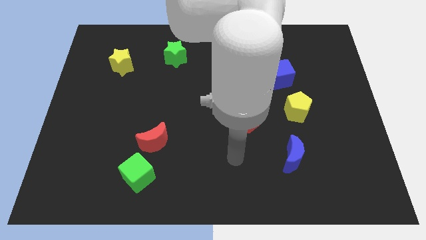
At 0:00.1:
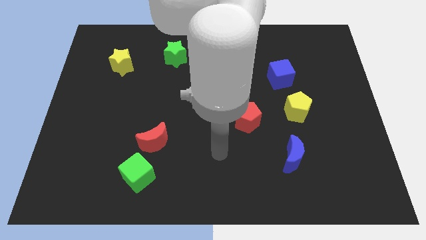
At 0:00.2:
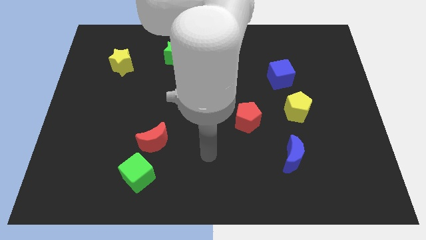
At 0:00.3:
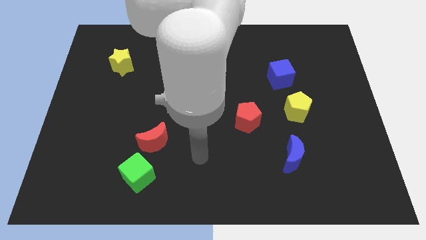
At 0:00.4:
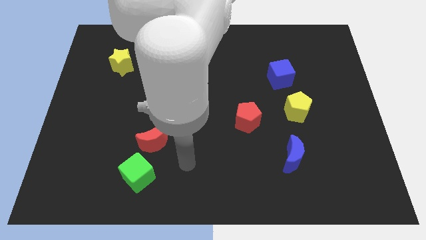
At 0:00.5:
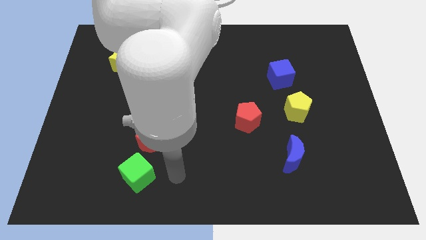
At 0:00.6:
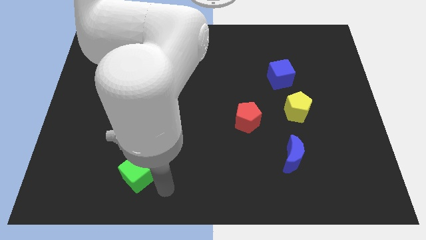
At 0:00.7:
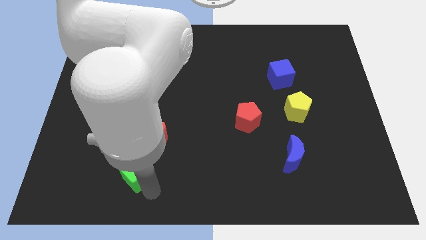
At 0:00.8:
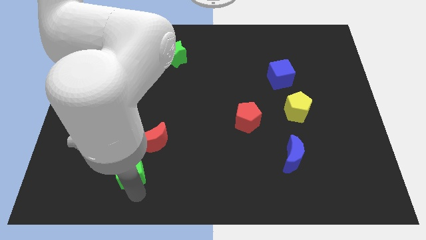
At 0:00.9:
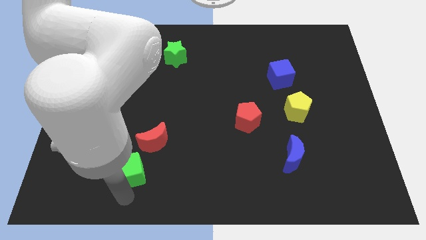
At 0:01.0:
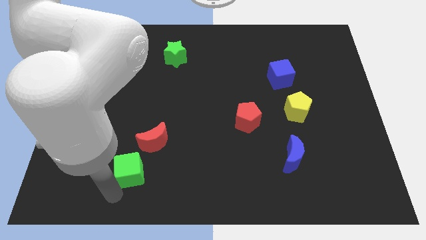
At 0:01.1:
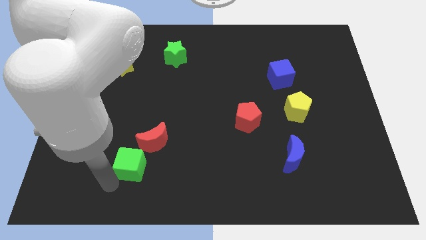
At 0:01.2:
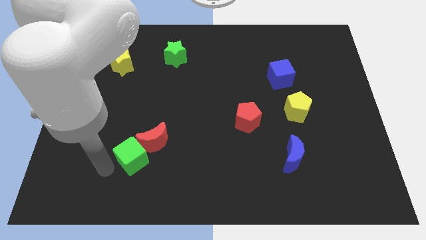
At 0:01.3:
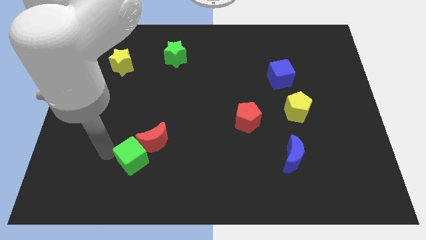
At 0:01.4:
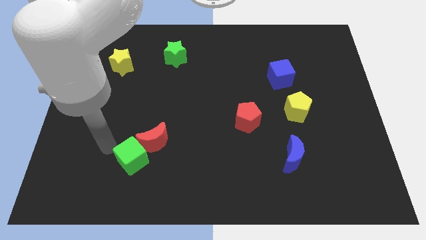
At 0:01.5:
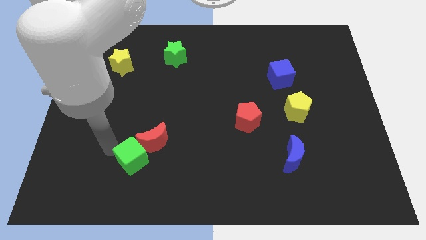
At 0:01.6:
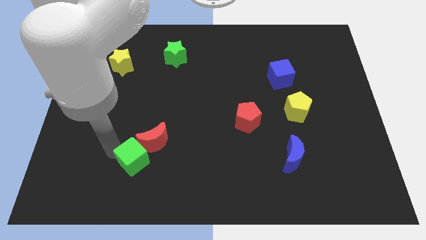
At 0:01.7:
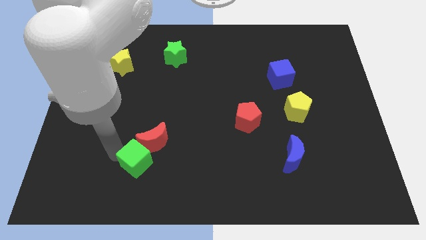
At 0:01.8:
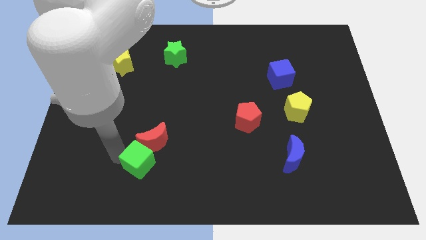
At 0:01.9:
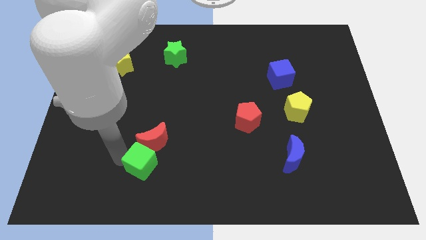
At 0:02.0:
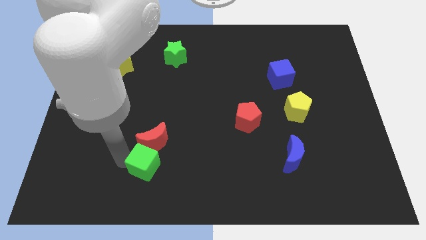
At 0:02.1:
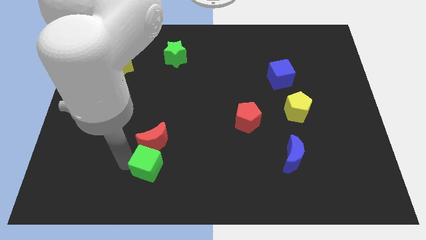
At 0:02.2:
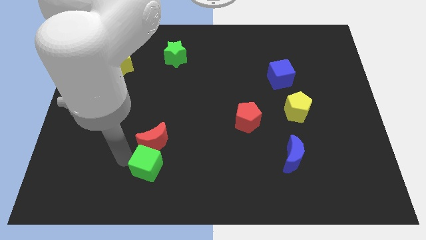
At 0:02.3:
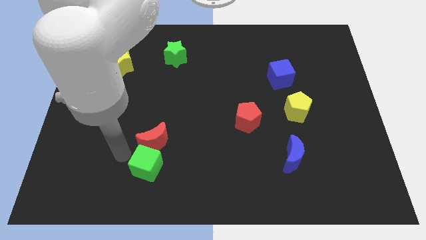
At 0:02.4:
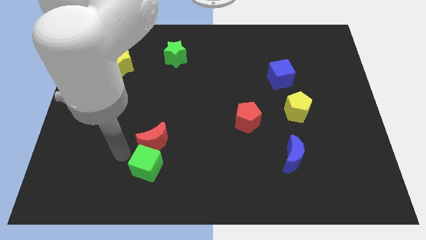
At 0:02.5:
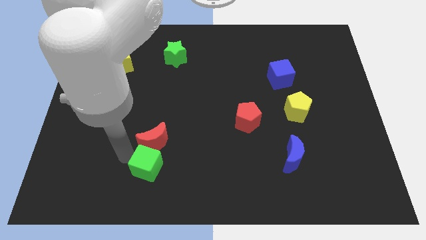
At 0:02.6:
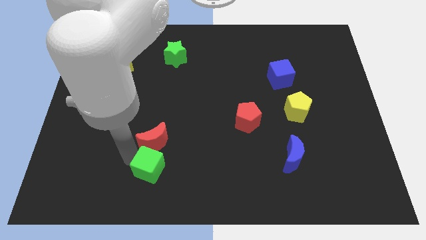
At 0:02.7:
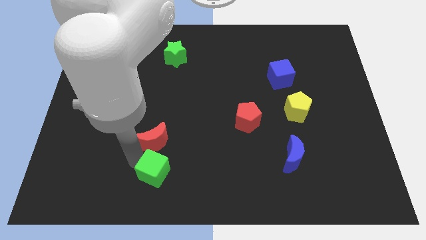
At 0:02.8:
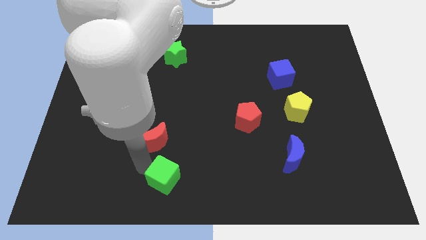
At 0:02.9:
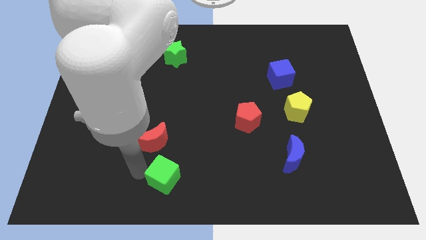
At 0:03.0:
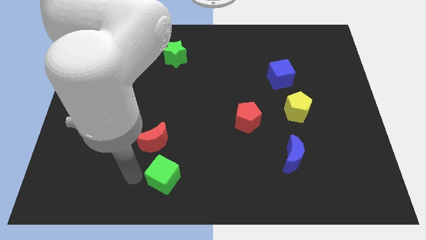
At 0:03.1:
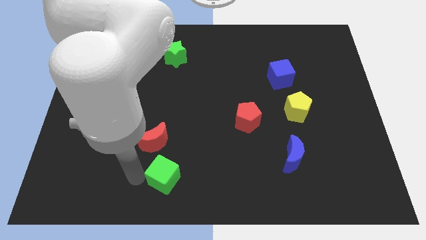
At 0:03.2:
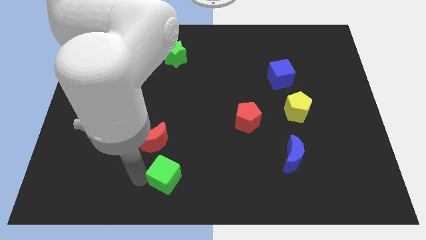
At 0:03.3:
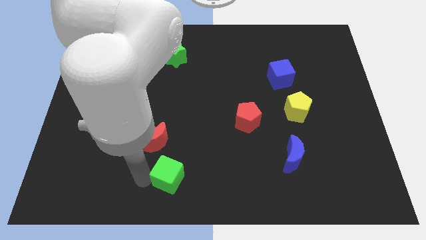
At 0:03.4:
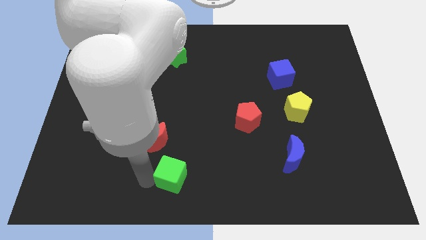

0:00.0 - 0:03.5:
slide the green cube right somewhat

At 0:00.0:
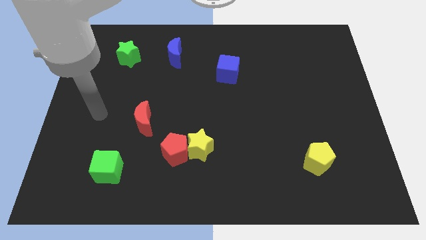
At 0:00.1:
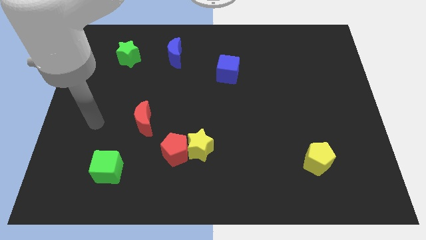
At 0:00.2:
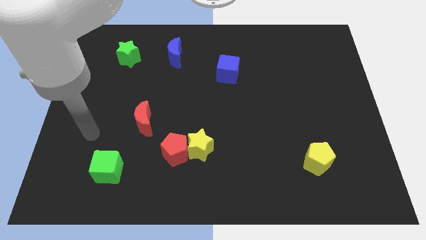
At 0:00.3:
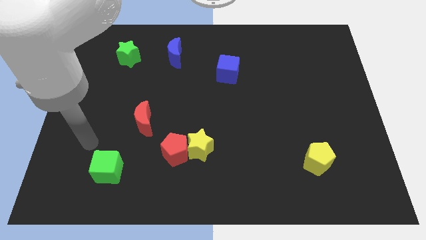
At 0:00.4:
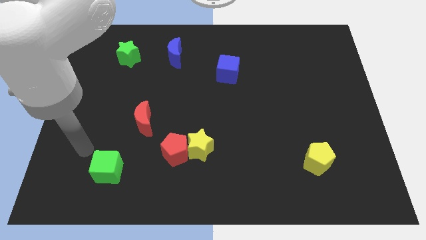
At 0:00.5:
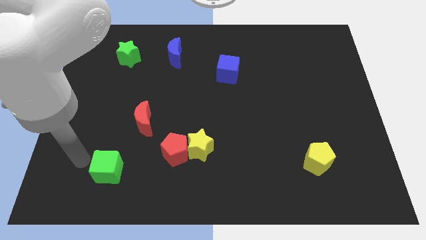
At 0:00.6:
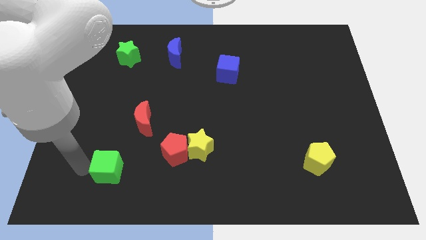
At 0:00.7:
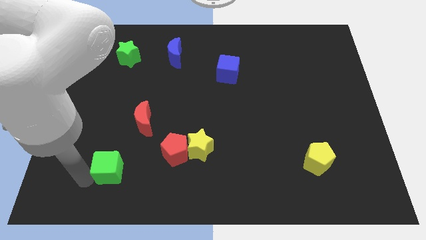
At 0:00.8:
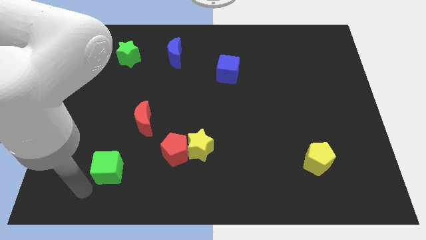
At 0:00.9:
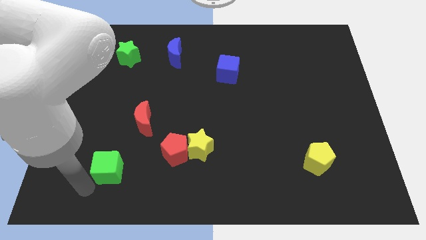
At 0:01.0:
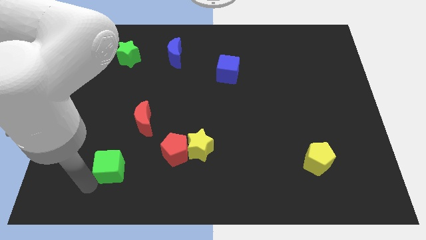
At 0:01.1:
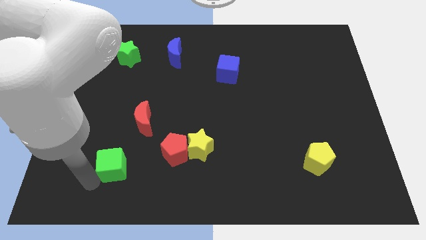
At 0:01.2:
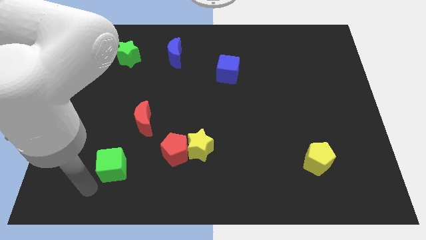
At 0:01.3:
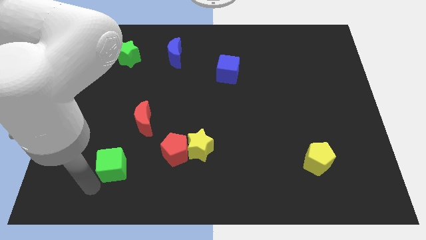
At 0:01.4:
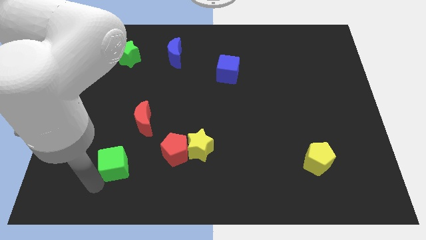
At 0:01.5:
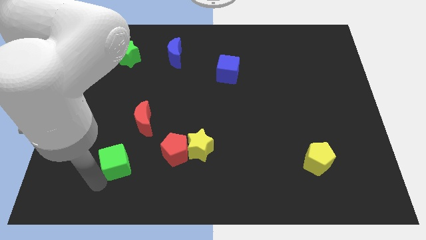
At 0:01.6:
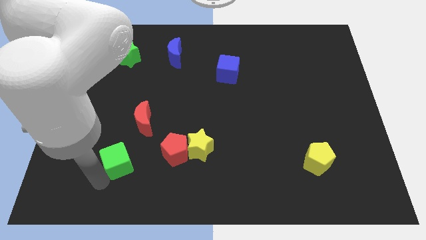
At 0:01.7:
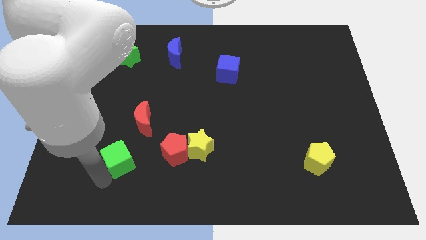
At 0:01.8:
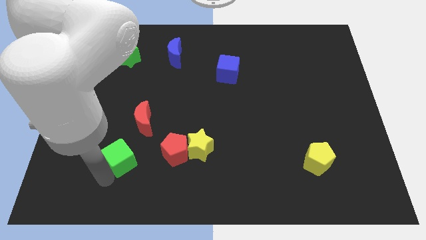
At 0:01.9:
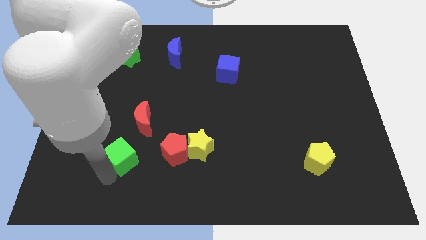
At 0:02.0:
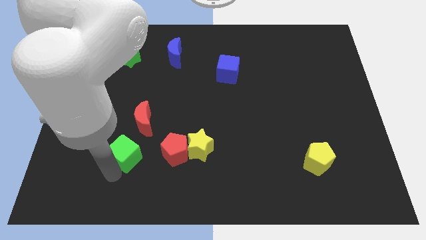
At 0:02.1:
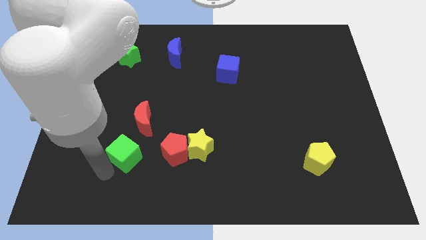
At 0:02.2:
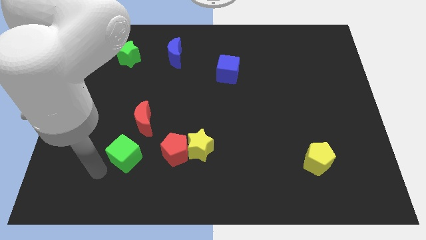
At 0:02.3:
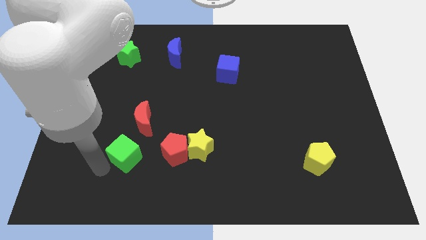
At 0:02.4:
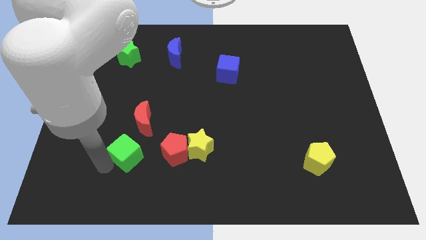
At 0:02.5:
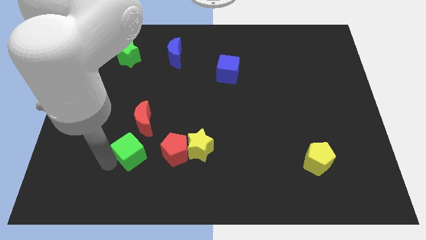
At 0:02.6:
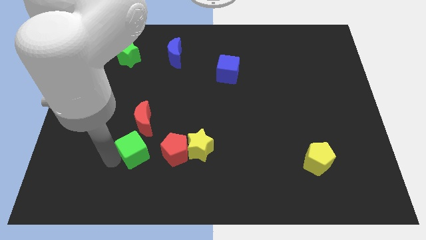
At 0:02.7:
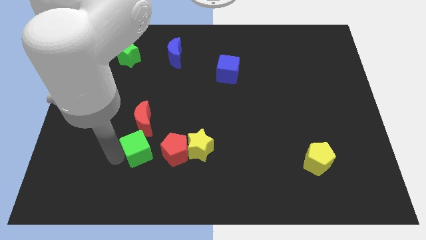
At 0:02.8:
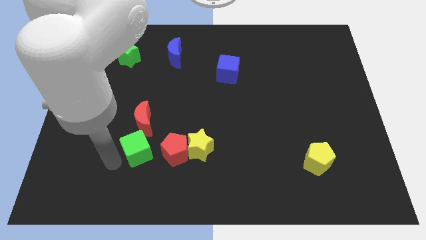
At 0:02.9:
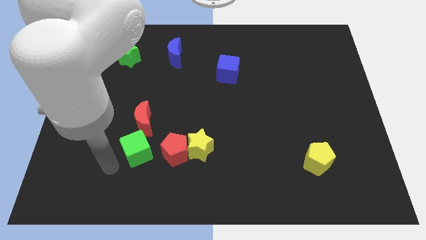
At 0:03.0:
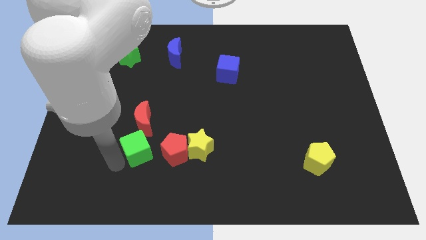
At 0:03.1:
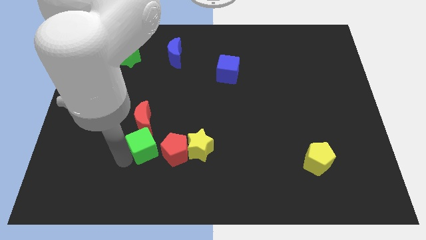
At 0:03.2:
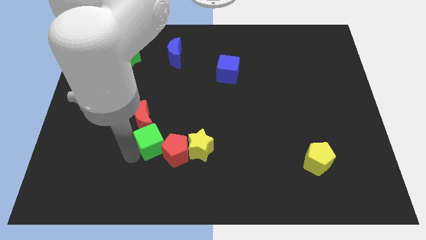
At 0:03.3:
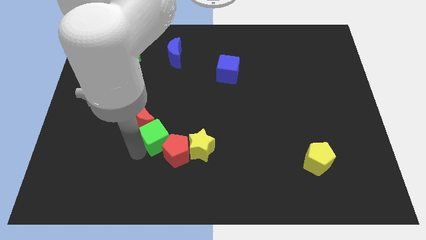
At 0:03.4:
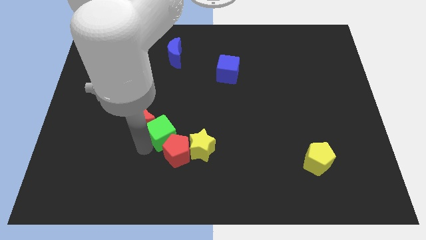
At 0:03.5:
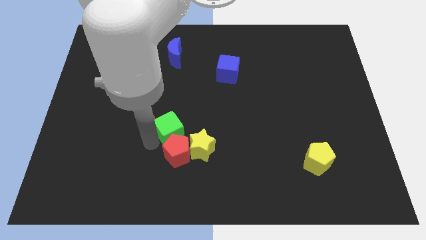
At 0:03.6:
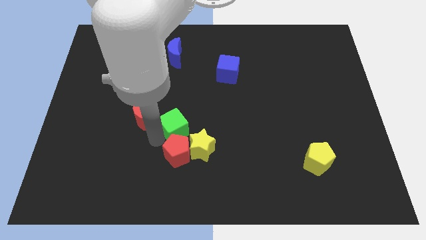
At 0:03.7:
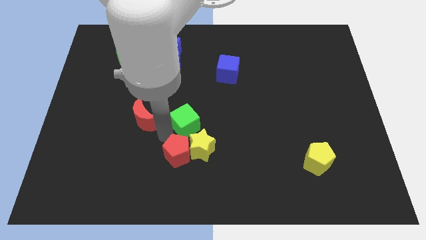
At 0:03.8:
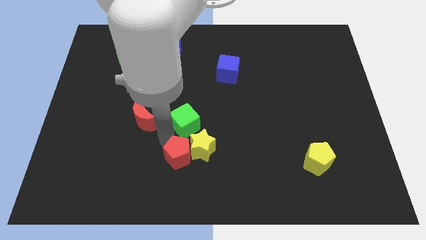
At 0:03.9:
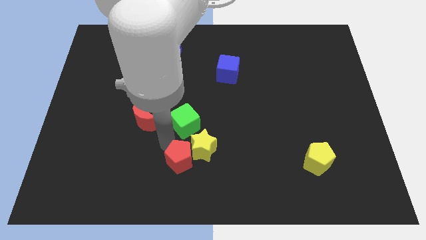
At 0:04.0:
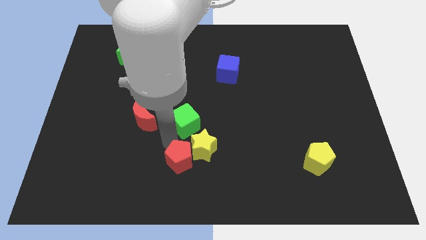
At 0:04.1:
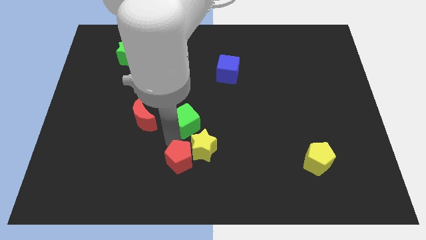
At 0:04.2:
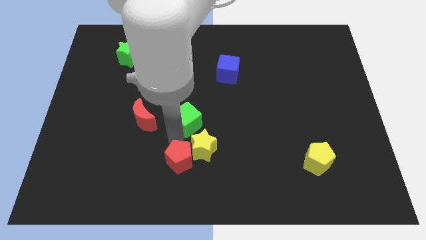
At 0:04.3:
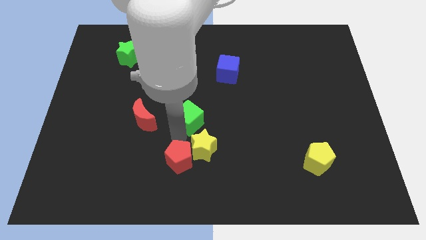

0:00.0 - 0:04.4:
push the green cube up and right diagonally

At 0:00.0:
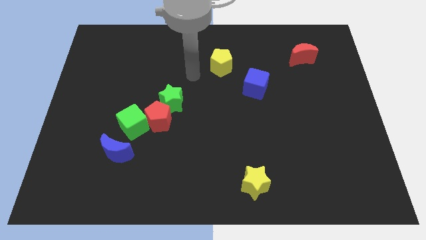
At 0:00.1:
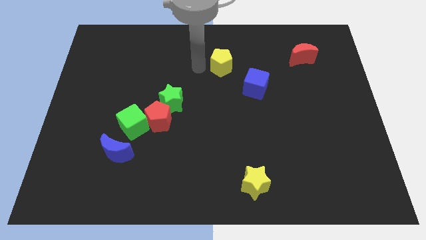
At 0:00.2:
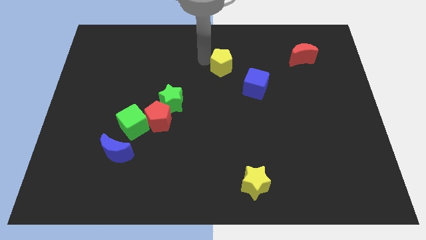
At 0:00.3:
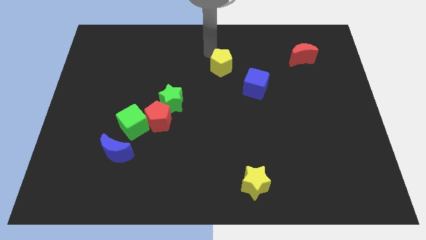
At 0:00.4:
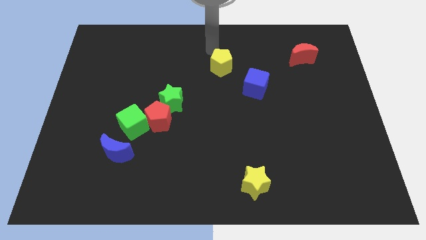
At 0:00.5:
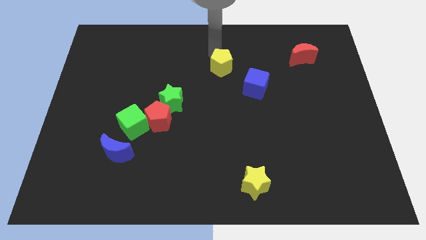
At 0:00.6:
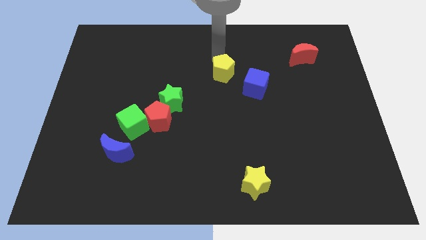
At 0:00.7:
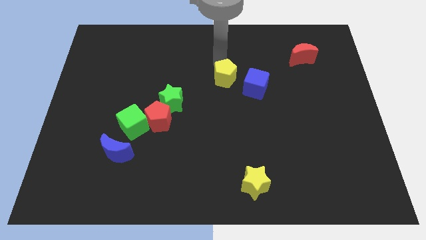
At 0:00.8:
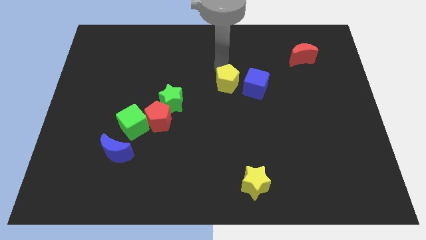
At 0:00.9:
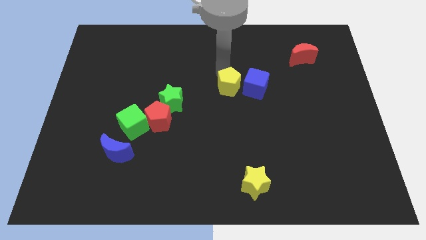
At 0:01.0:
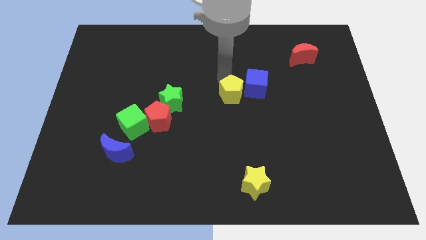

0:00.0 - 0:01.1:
slide the yellow pentagon diagonally down and right somewhat
